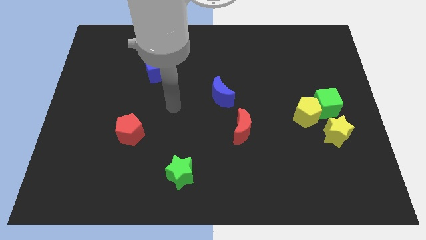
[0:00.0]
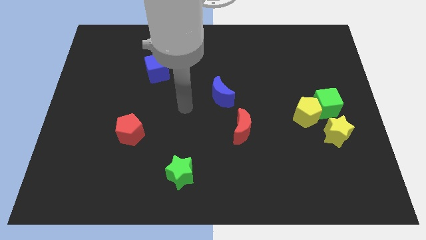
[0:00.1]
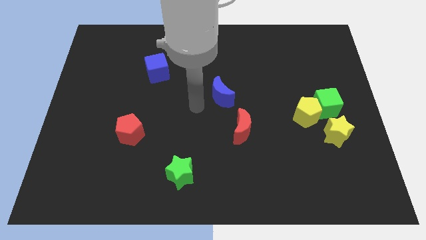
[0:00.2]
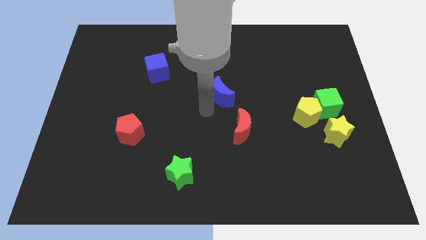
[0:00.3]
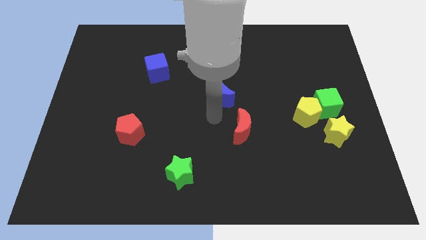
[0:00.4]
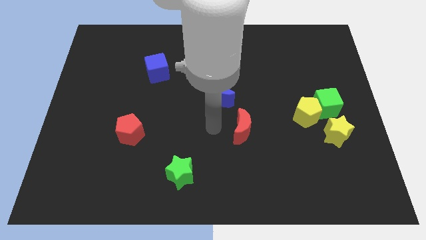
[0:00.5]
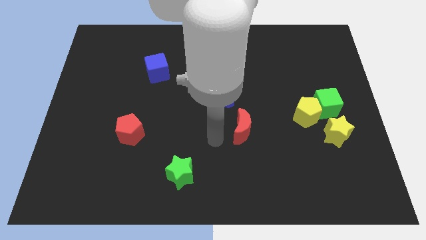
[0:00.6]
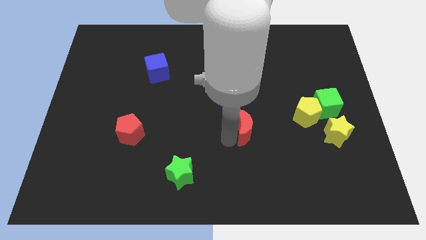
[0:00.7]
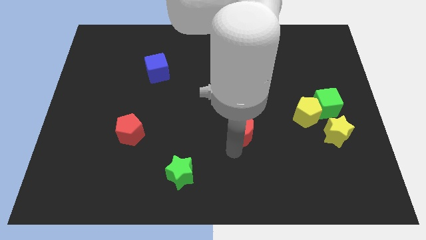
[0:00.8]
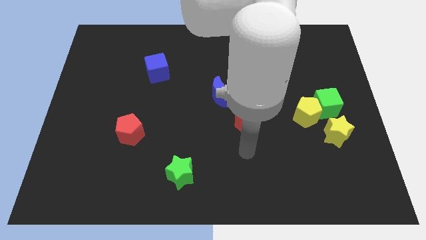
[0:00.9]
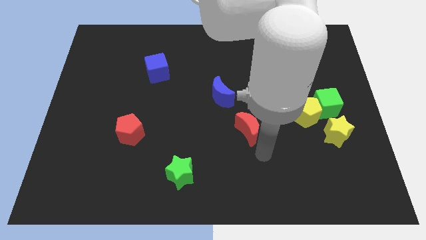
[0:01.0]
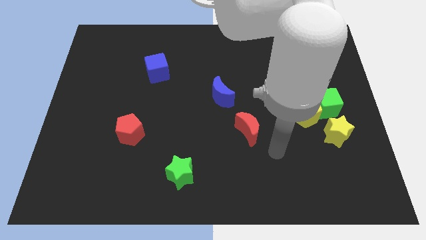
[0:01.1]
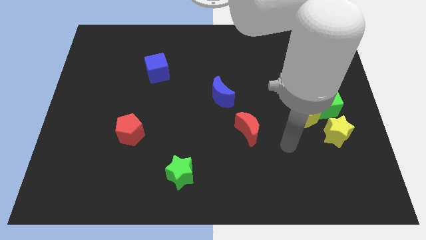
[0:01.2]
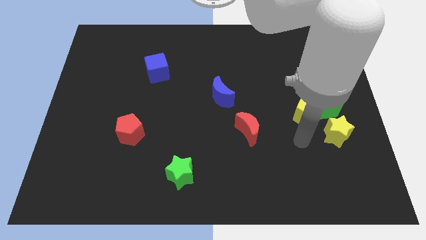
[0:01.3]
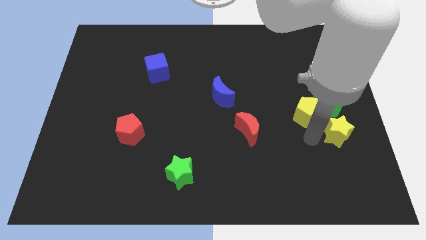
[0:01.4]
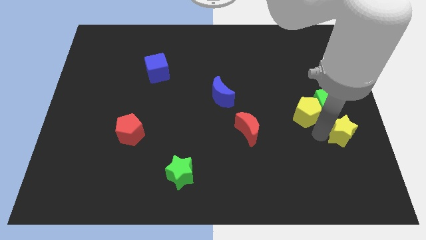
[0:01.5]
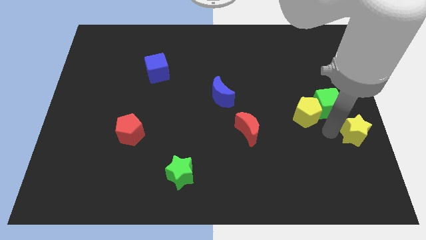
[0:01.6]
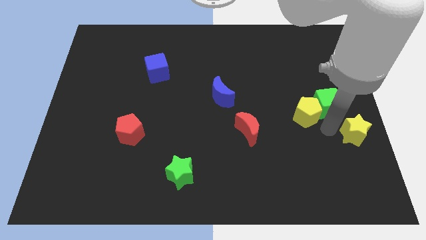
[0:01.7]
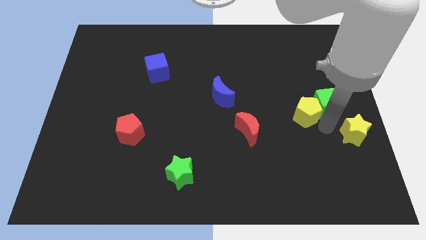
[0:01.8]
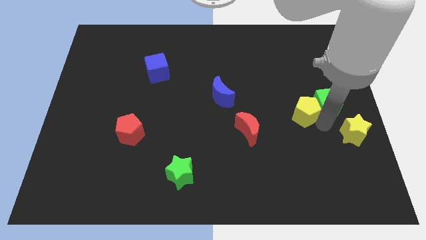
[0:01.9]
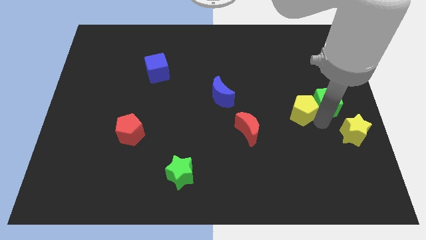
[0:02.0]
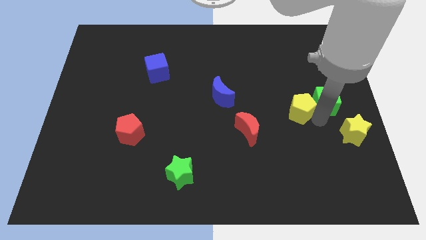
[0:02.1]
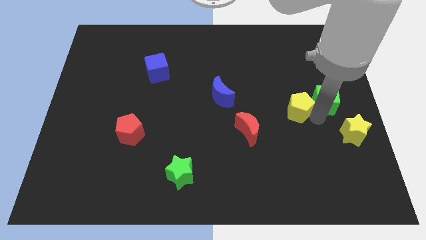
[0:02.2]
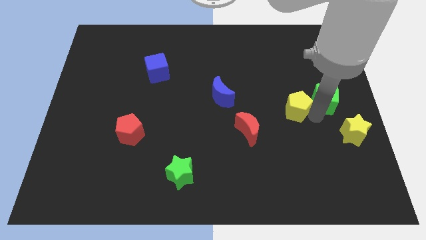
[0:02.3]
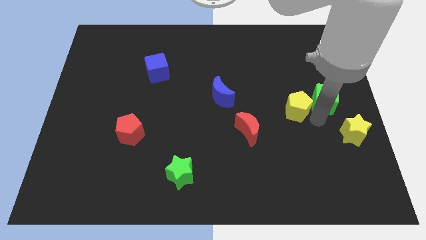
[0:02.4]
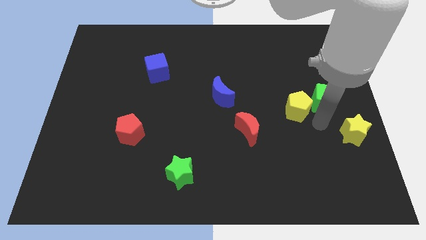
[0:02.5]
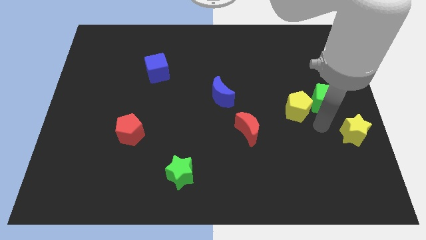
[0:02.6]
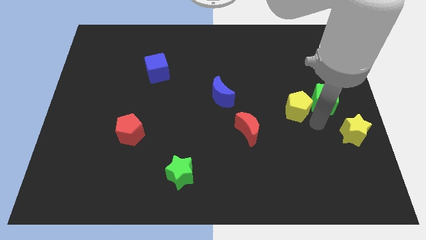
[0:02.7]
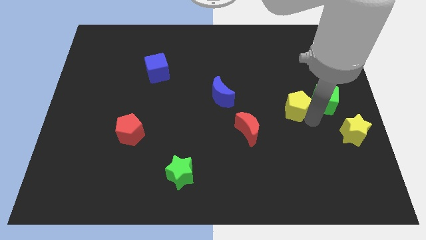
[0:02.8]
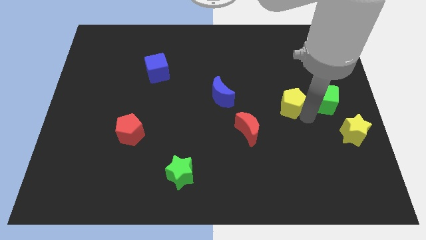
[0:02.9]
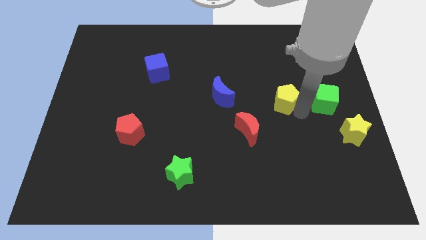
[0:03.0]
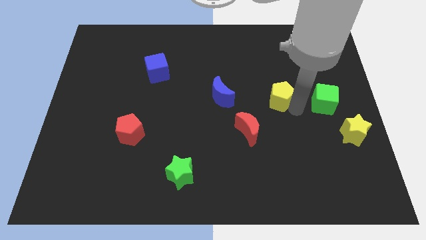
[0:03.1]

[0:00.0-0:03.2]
move the yellow pentagon a bit upwards and to the left

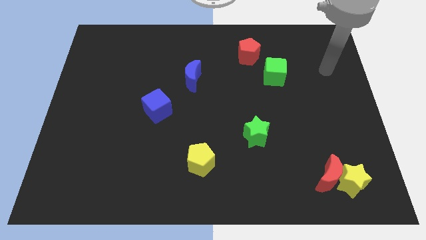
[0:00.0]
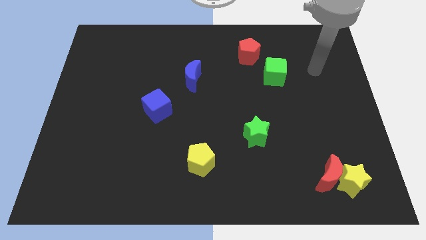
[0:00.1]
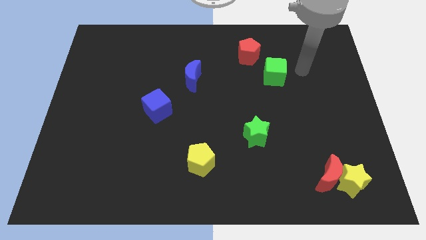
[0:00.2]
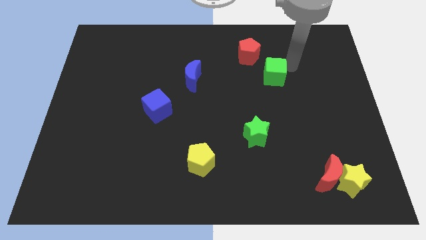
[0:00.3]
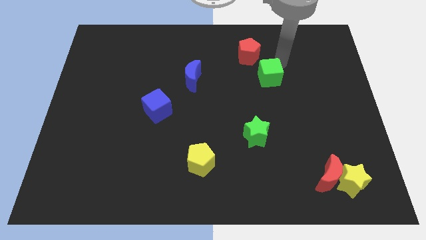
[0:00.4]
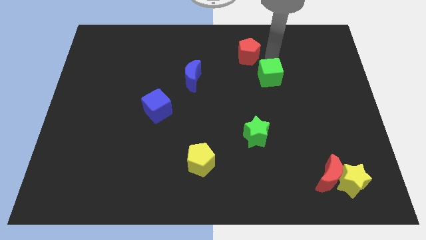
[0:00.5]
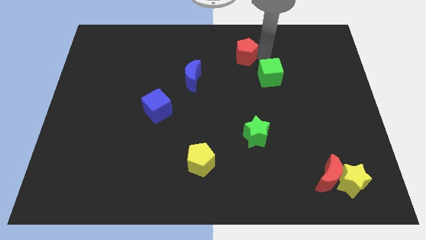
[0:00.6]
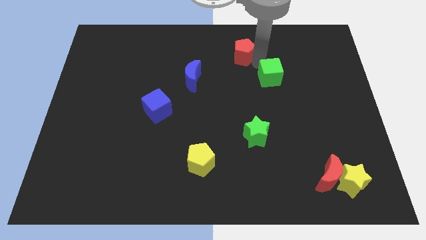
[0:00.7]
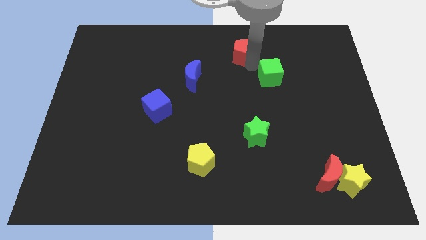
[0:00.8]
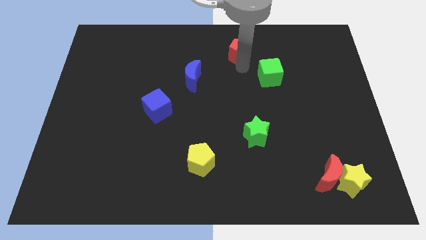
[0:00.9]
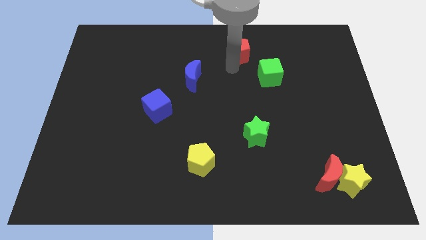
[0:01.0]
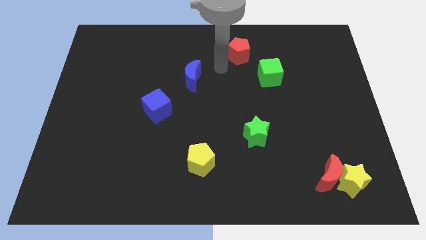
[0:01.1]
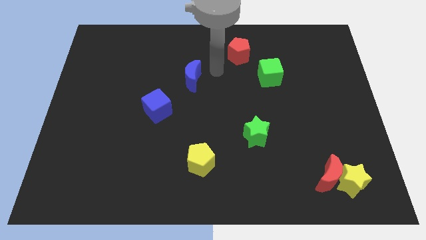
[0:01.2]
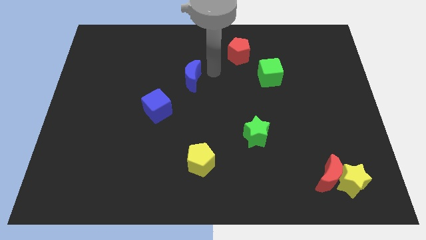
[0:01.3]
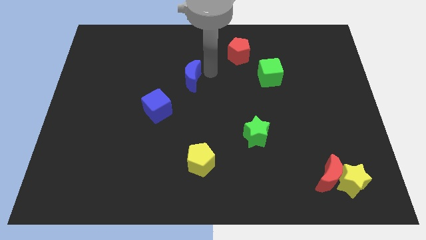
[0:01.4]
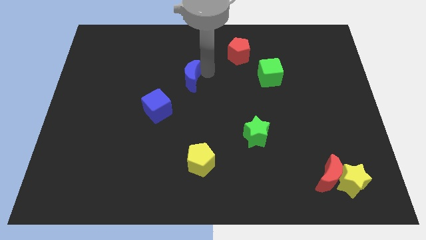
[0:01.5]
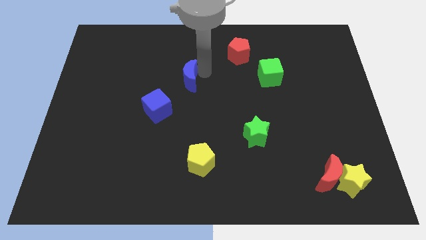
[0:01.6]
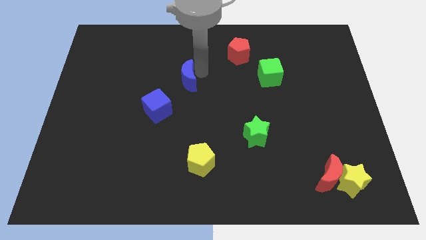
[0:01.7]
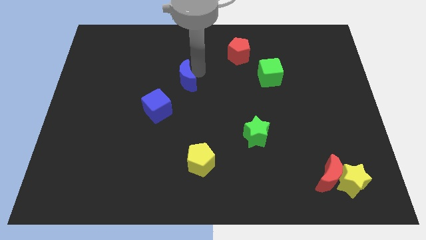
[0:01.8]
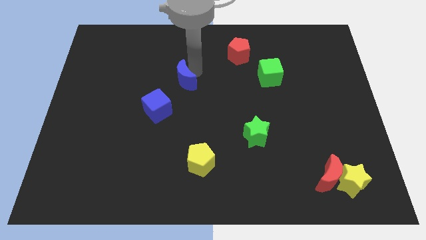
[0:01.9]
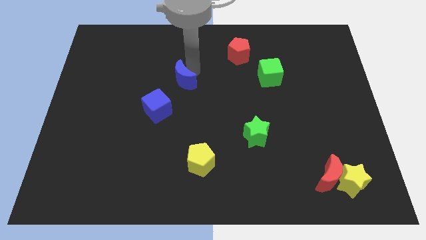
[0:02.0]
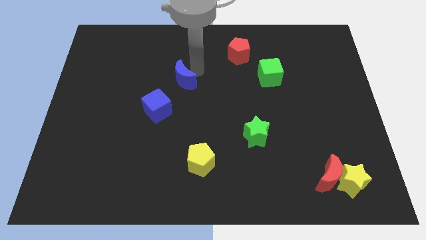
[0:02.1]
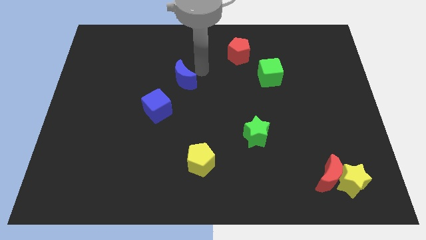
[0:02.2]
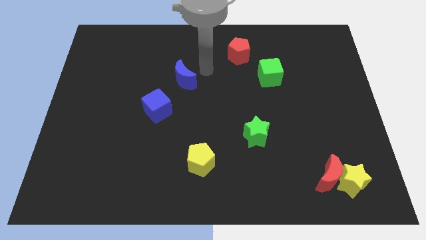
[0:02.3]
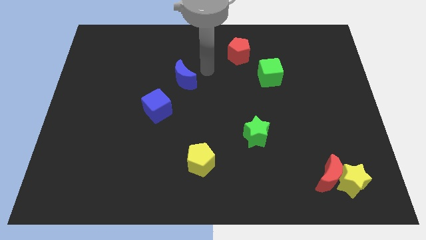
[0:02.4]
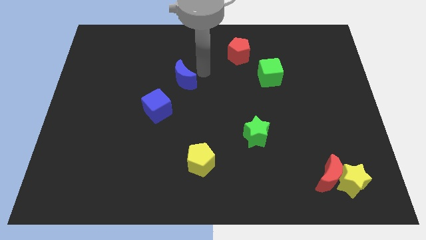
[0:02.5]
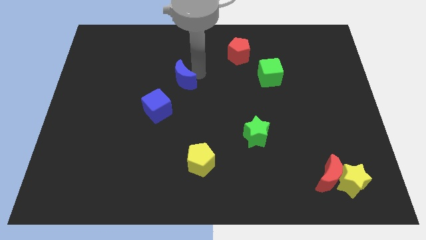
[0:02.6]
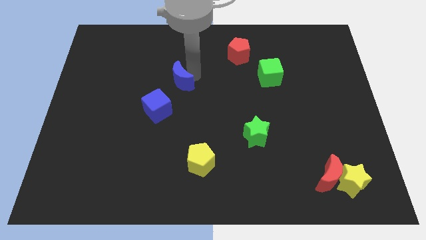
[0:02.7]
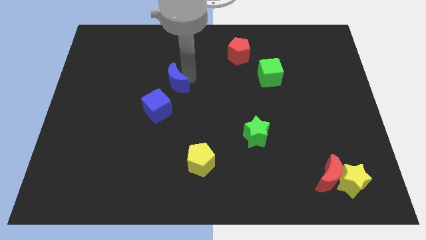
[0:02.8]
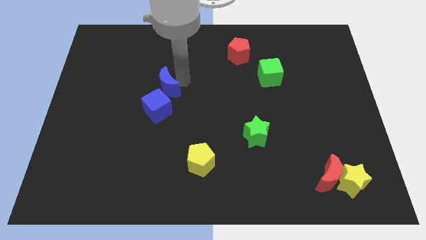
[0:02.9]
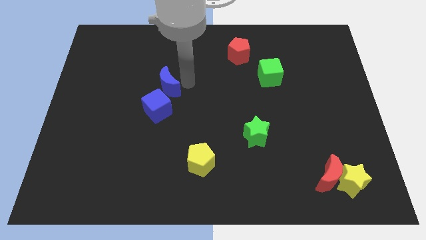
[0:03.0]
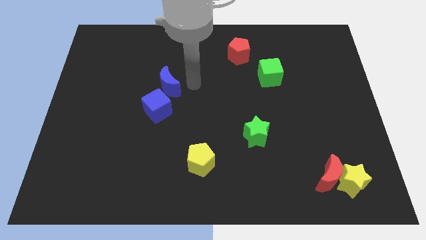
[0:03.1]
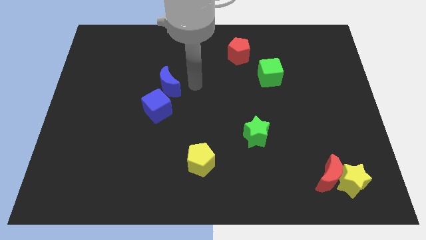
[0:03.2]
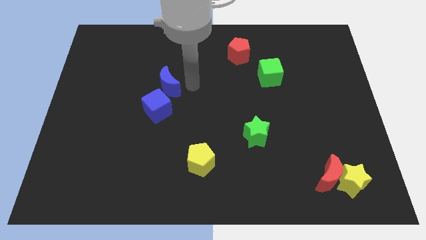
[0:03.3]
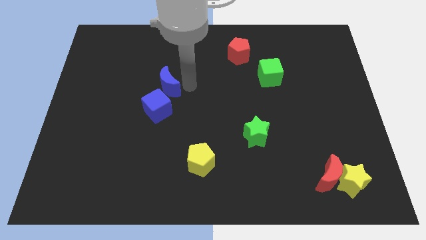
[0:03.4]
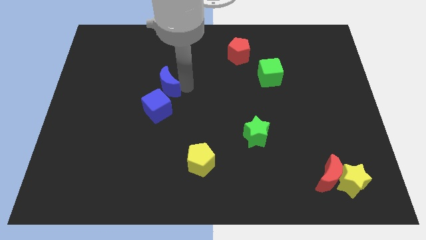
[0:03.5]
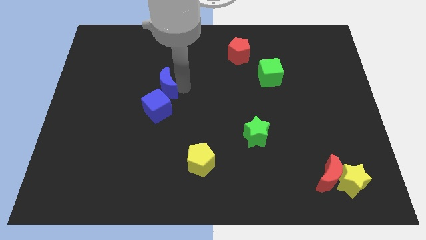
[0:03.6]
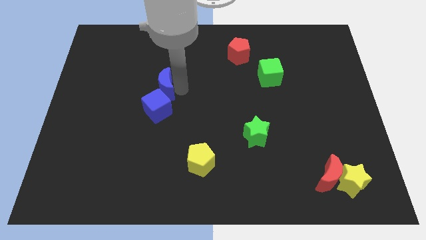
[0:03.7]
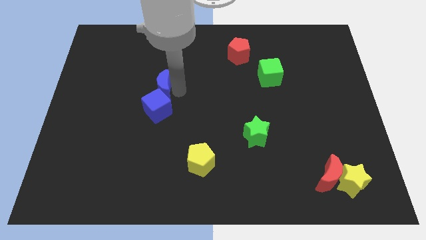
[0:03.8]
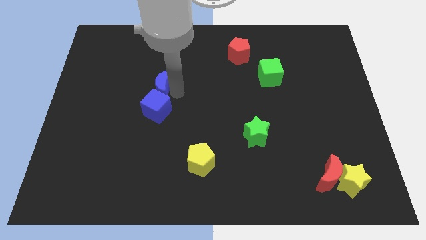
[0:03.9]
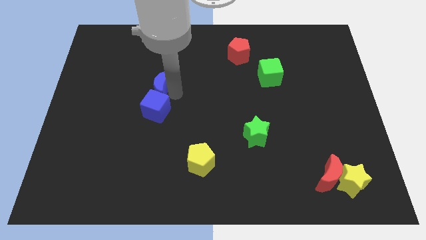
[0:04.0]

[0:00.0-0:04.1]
push the blue moon left somewhat

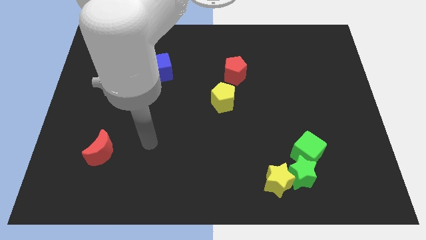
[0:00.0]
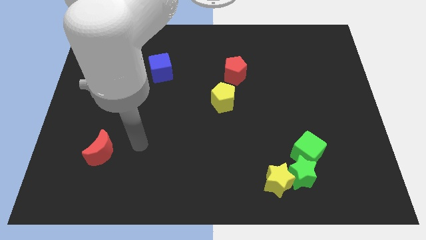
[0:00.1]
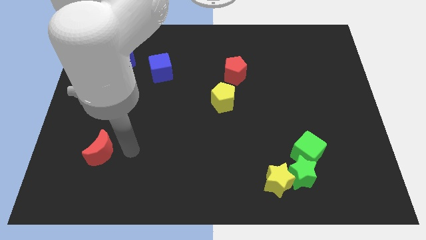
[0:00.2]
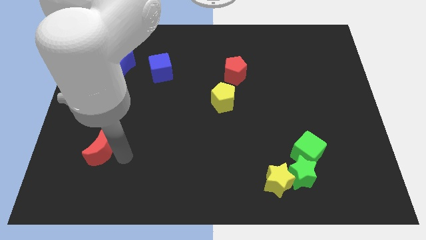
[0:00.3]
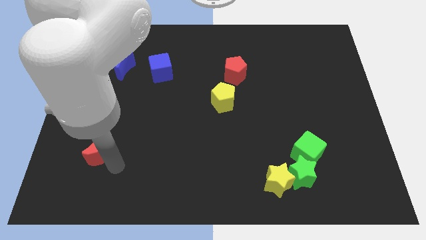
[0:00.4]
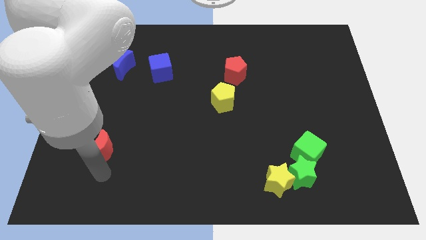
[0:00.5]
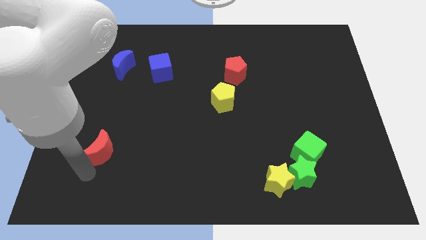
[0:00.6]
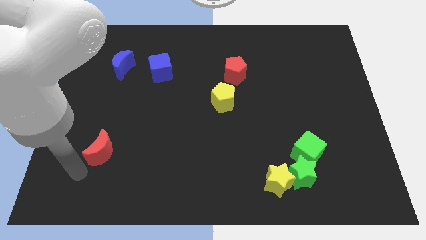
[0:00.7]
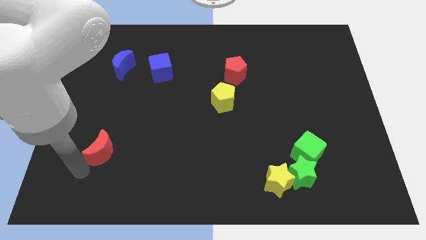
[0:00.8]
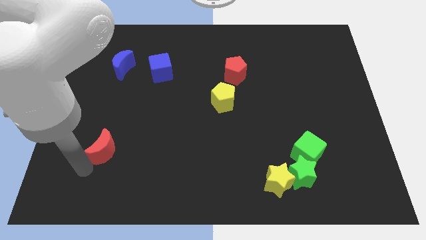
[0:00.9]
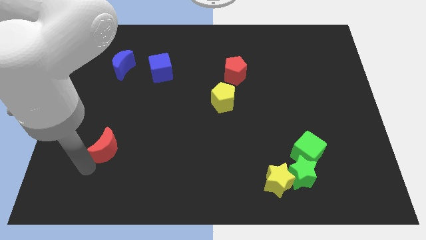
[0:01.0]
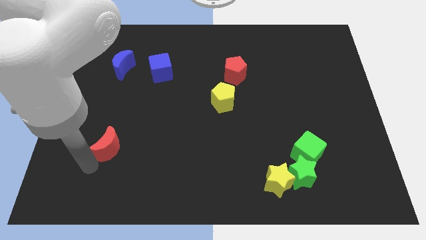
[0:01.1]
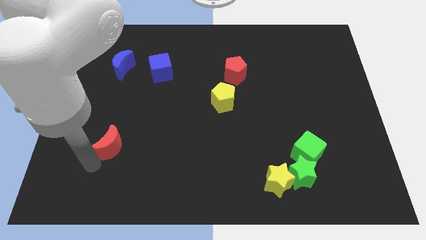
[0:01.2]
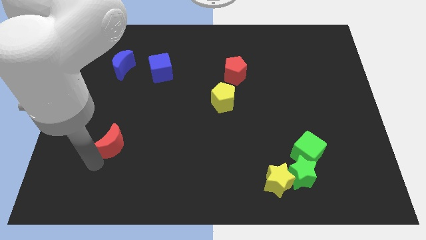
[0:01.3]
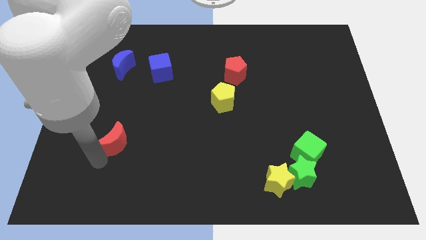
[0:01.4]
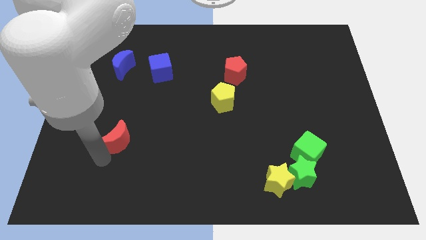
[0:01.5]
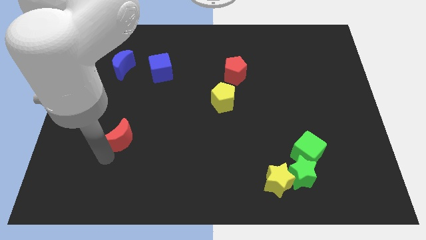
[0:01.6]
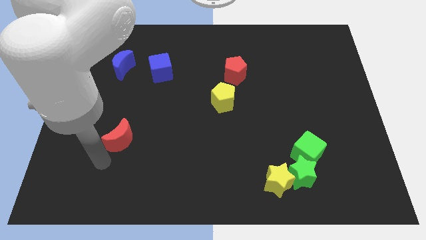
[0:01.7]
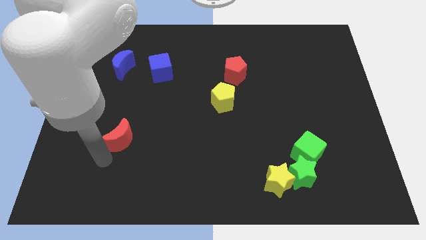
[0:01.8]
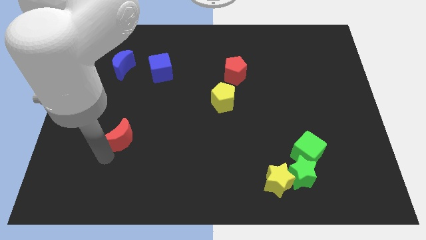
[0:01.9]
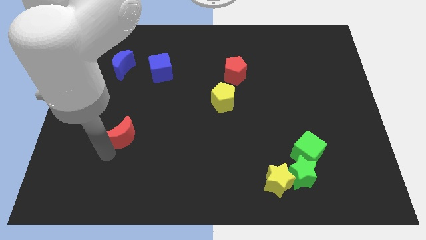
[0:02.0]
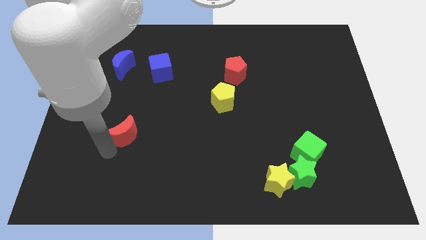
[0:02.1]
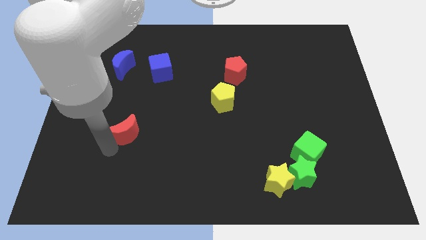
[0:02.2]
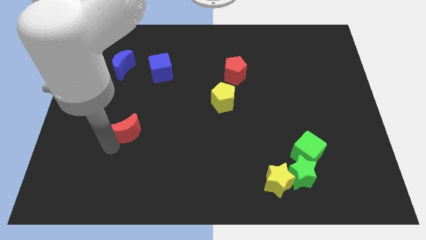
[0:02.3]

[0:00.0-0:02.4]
move the red moon a little up and to the right diagonally
